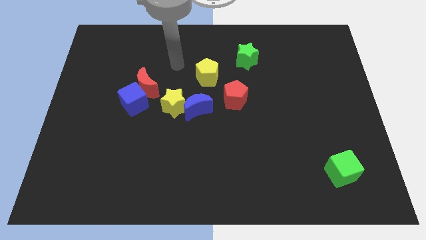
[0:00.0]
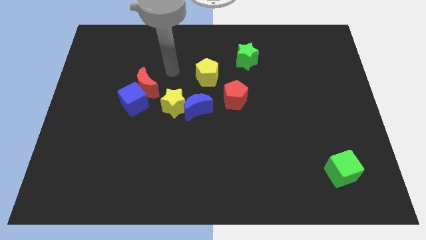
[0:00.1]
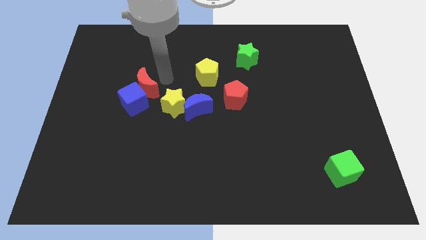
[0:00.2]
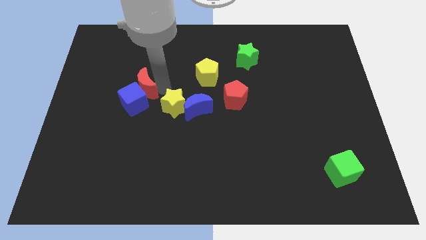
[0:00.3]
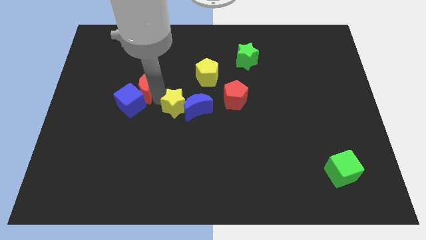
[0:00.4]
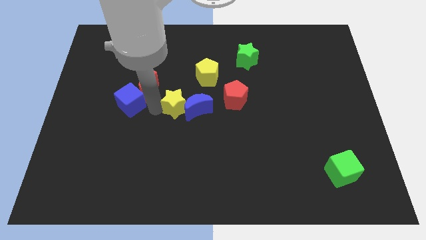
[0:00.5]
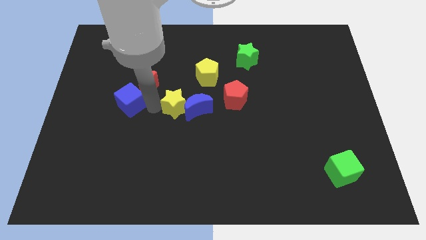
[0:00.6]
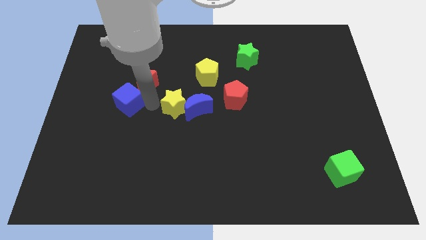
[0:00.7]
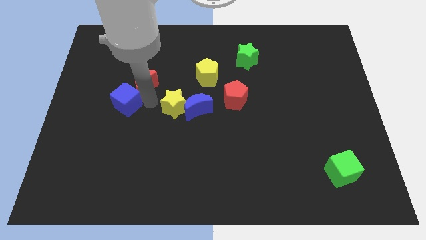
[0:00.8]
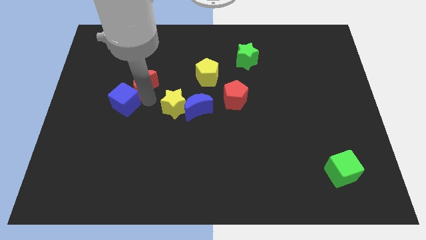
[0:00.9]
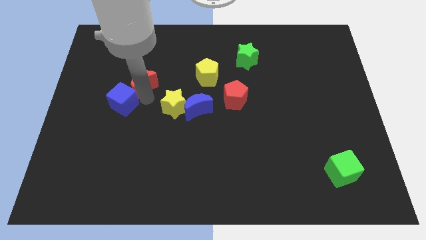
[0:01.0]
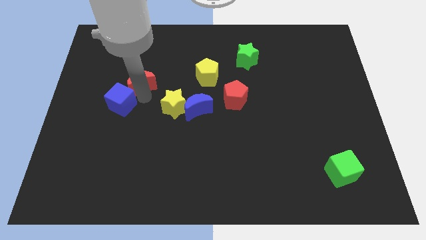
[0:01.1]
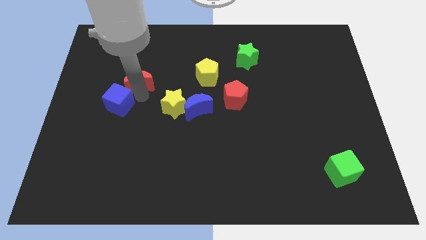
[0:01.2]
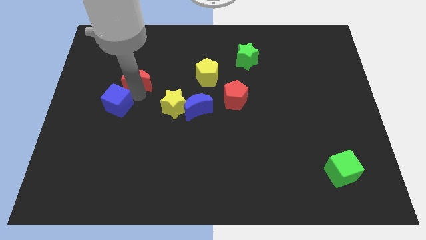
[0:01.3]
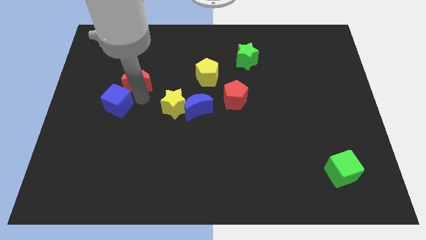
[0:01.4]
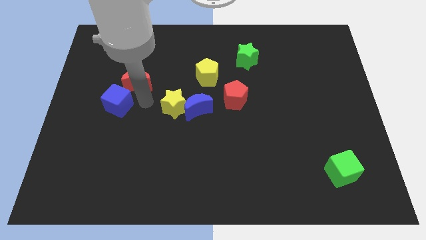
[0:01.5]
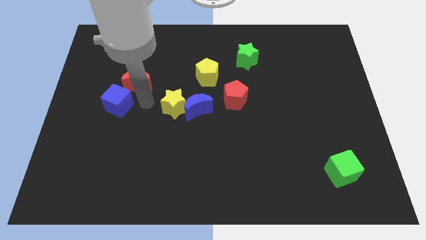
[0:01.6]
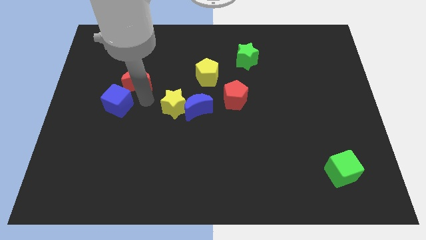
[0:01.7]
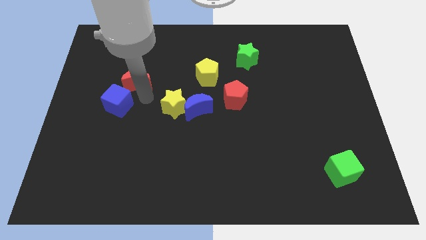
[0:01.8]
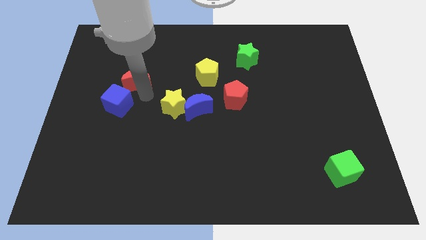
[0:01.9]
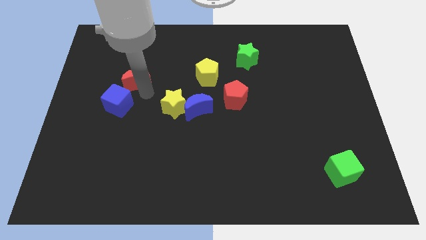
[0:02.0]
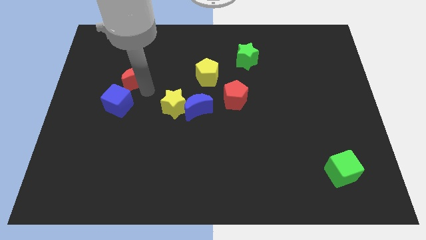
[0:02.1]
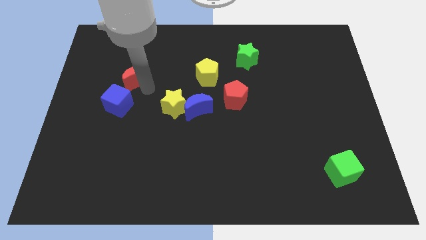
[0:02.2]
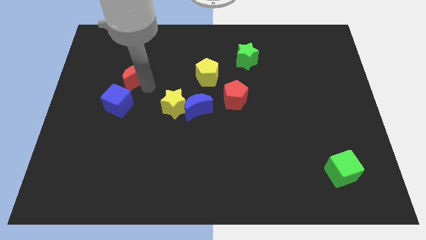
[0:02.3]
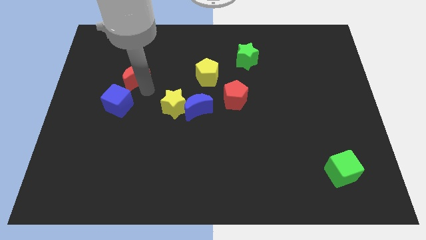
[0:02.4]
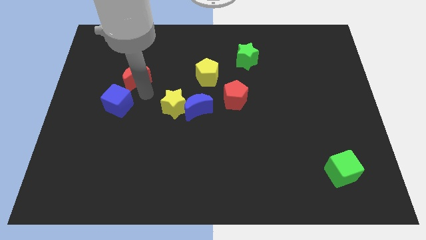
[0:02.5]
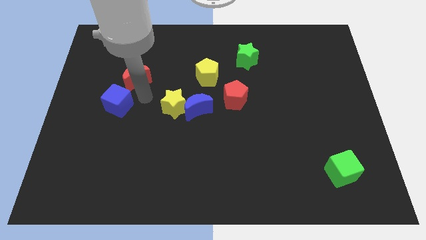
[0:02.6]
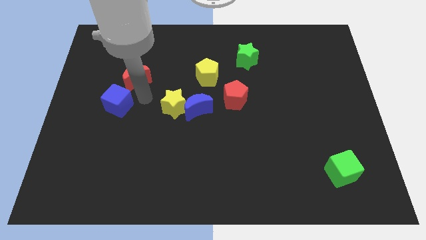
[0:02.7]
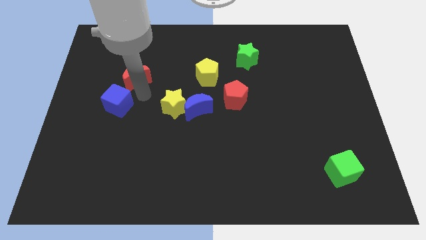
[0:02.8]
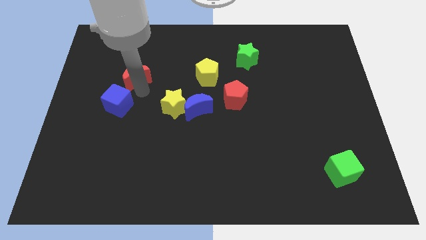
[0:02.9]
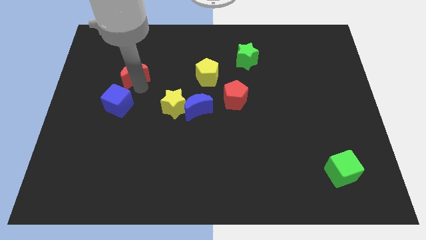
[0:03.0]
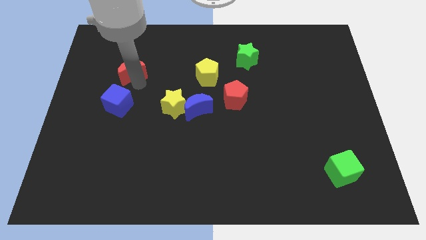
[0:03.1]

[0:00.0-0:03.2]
pull the red moon apart from the blue cube and yellow star

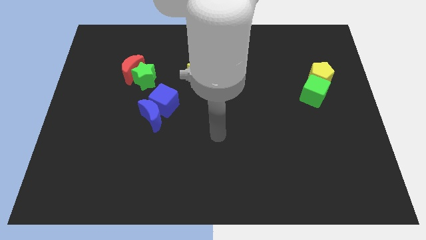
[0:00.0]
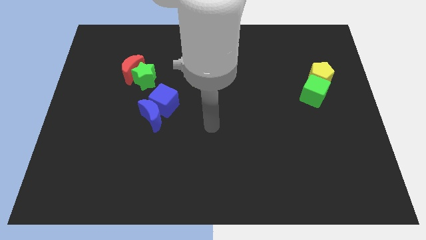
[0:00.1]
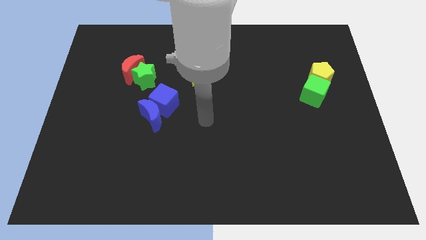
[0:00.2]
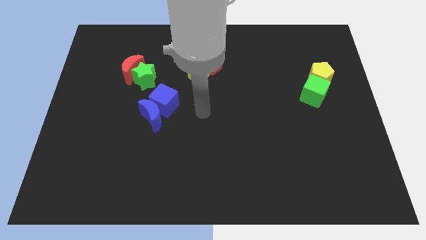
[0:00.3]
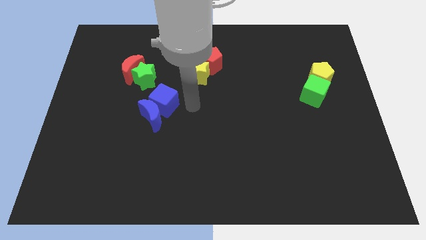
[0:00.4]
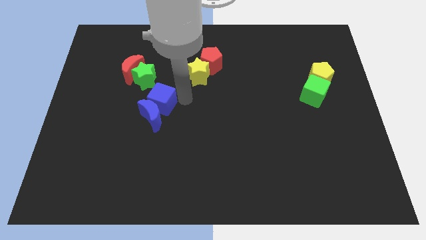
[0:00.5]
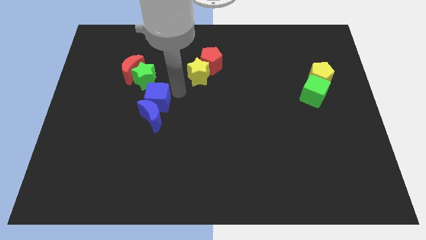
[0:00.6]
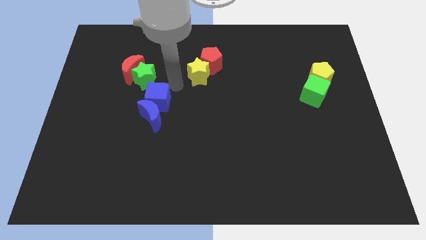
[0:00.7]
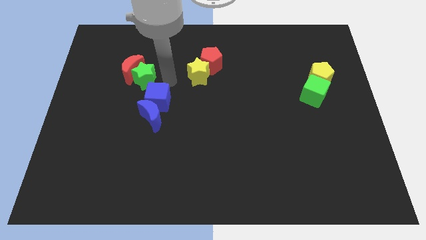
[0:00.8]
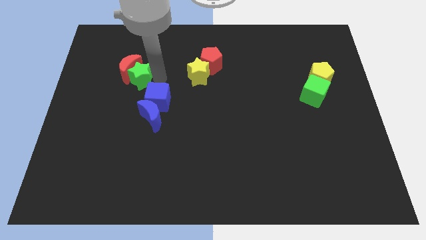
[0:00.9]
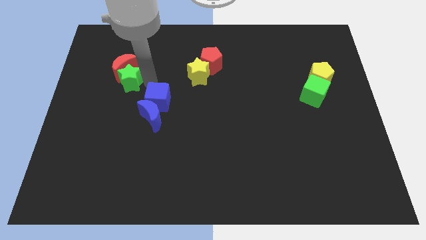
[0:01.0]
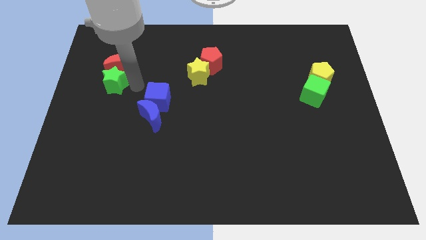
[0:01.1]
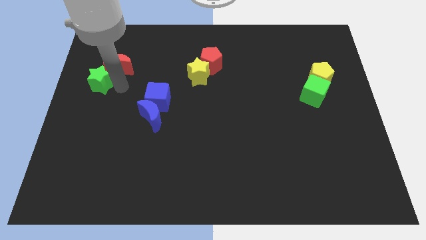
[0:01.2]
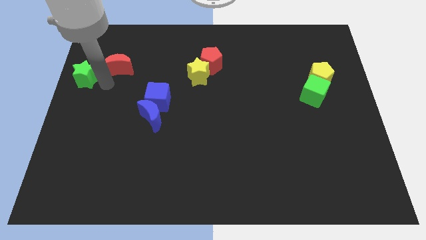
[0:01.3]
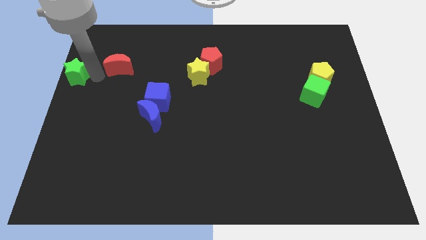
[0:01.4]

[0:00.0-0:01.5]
pull the red moon apart from the green star

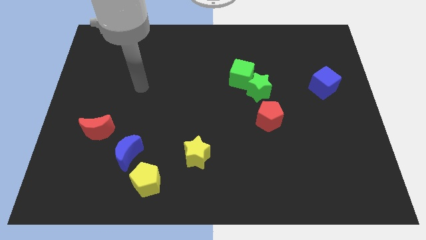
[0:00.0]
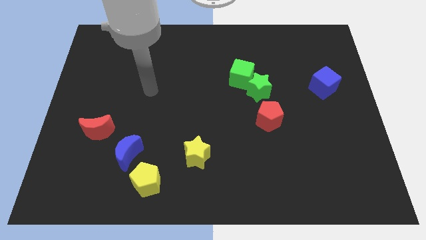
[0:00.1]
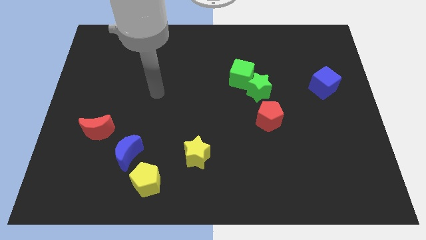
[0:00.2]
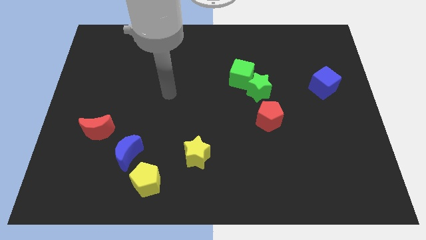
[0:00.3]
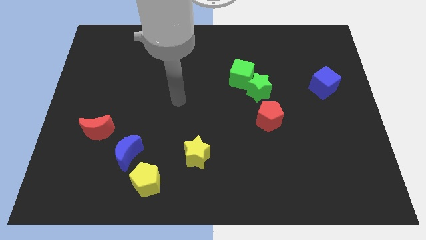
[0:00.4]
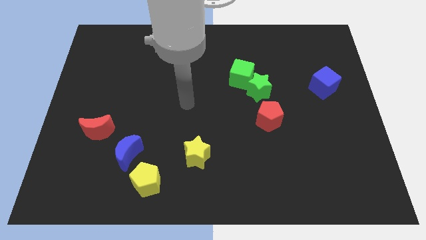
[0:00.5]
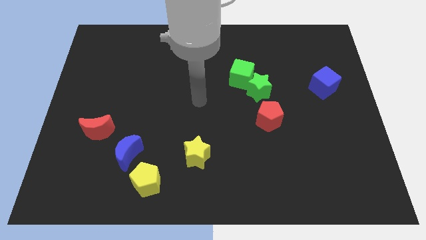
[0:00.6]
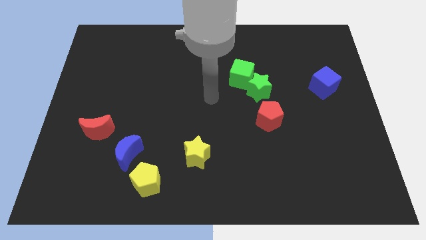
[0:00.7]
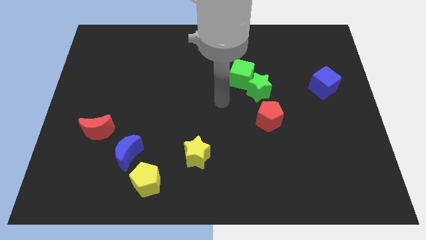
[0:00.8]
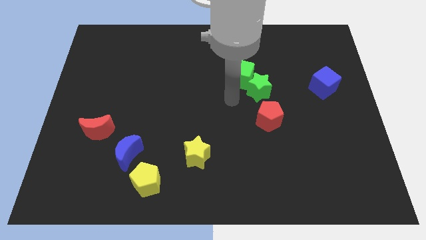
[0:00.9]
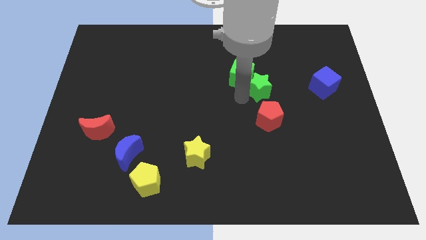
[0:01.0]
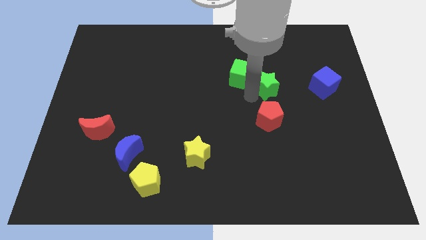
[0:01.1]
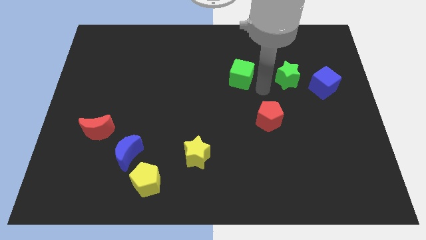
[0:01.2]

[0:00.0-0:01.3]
move the green cube away from the green star

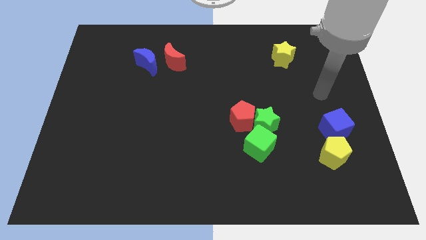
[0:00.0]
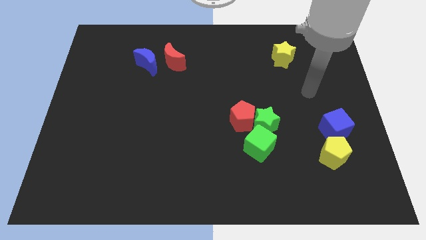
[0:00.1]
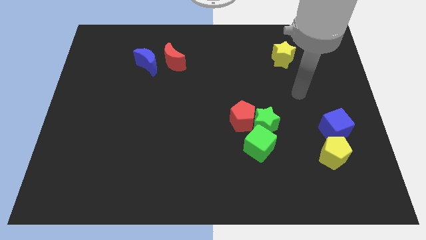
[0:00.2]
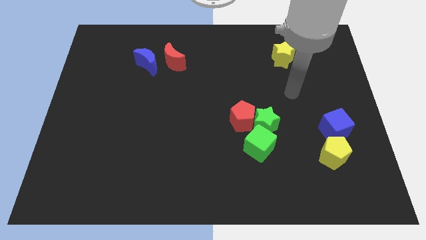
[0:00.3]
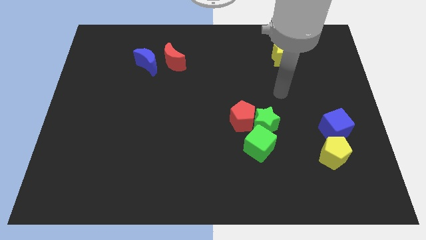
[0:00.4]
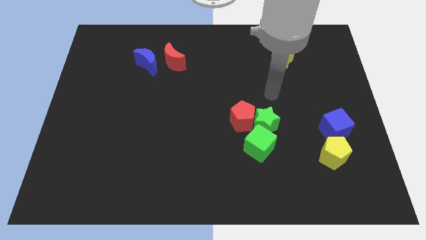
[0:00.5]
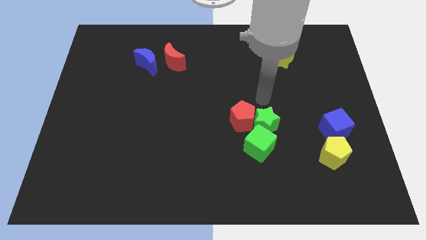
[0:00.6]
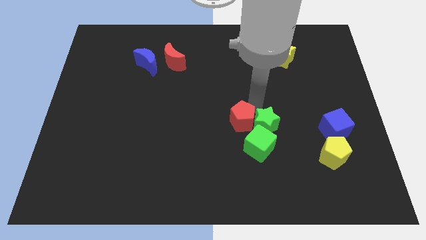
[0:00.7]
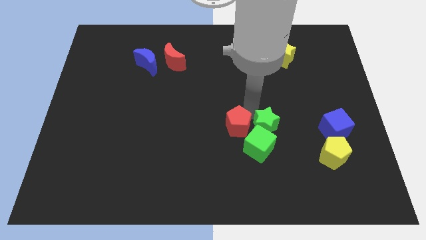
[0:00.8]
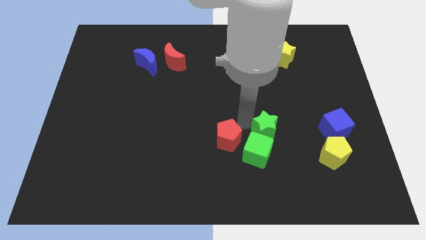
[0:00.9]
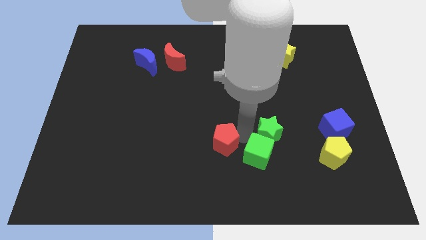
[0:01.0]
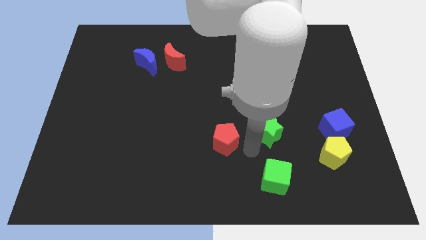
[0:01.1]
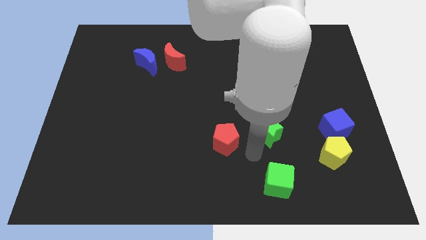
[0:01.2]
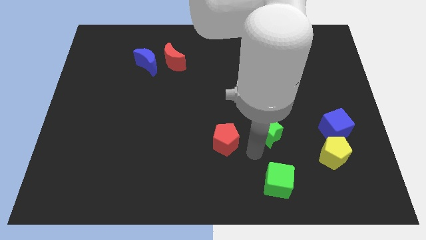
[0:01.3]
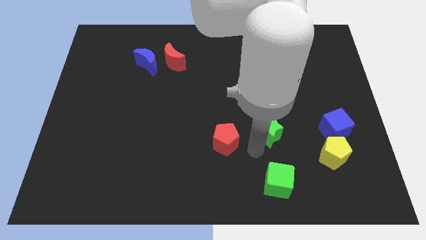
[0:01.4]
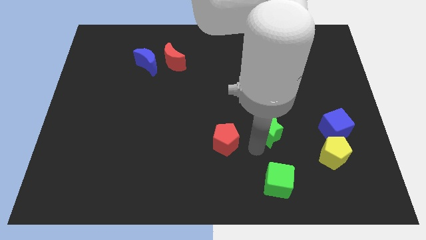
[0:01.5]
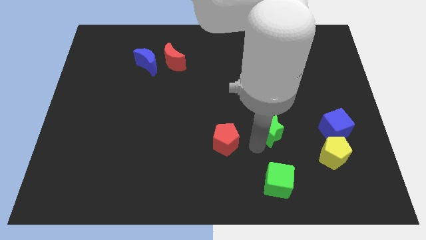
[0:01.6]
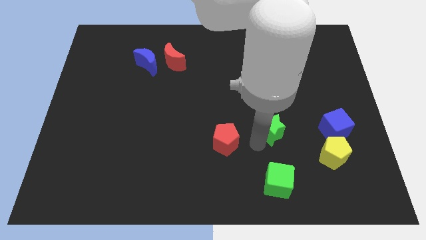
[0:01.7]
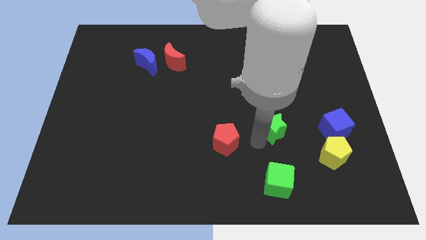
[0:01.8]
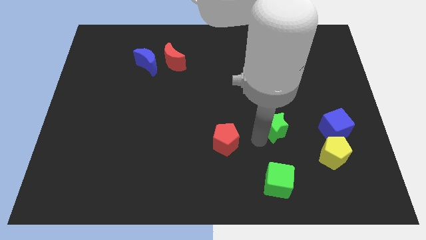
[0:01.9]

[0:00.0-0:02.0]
pull the green star apart from the red pentagon and green cube

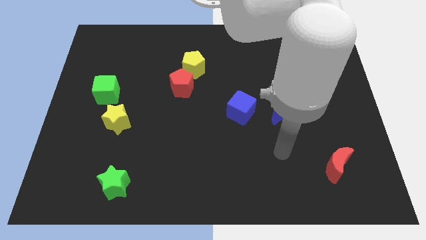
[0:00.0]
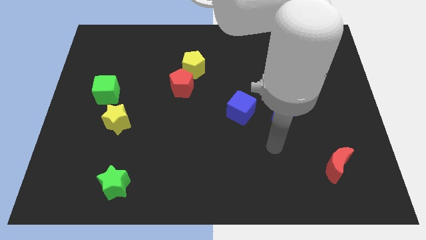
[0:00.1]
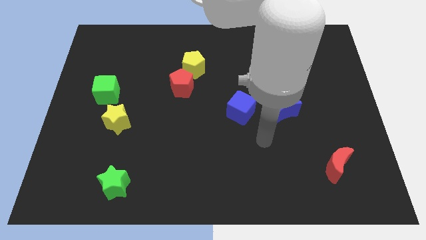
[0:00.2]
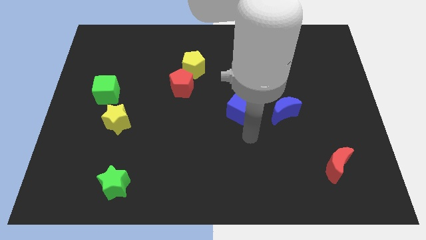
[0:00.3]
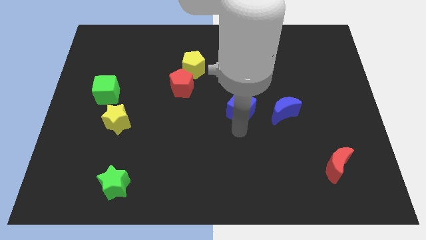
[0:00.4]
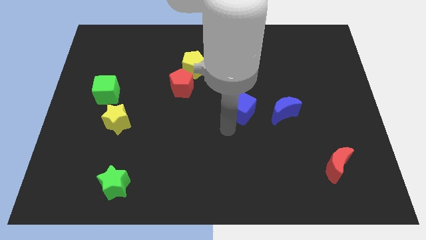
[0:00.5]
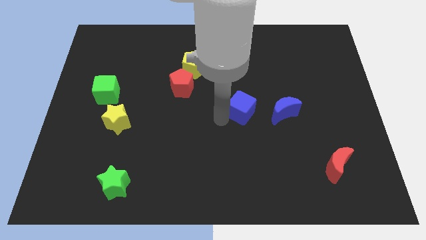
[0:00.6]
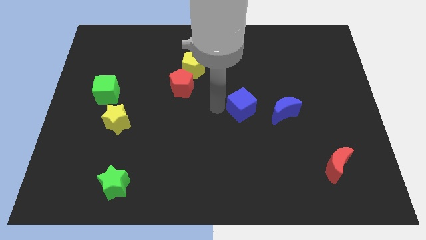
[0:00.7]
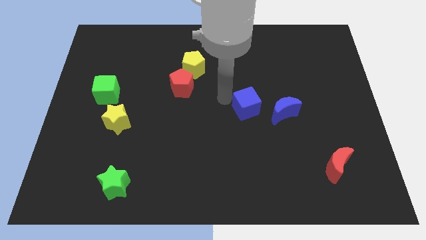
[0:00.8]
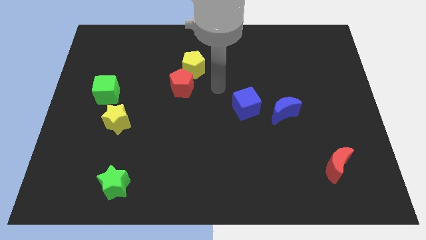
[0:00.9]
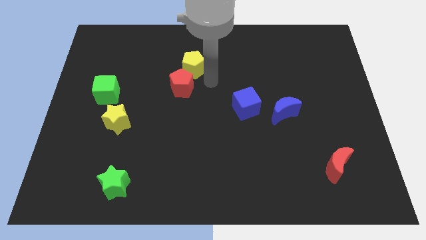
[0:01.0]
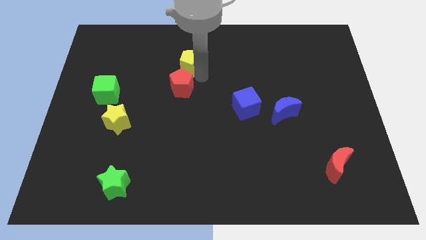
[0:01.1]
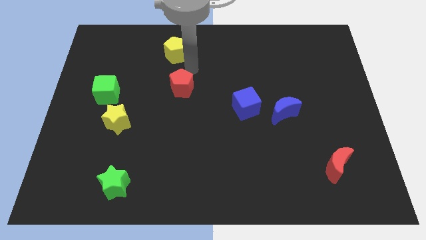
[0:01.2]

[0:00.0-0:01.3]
pull the red pentagon apart from the yellow pentagon
